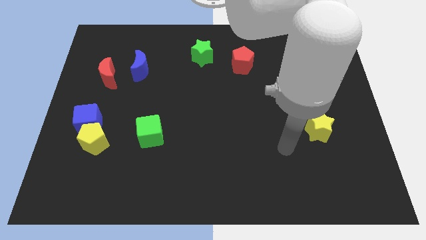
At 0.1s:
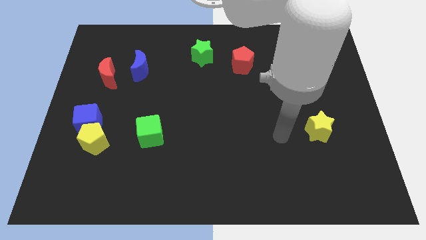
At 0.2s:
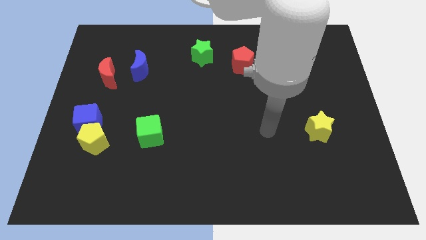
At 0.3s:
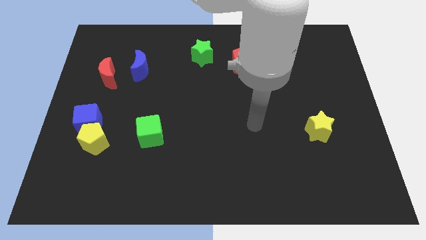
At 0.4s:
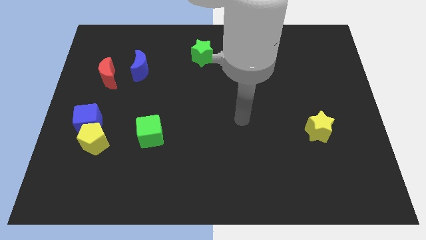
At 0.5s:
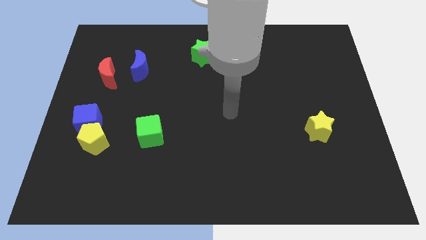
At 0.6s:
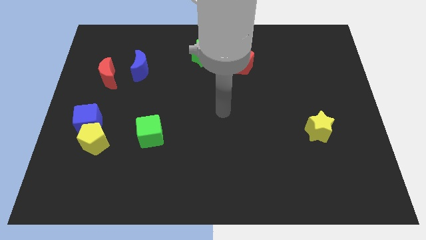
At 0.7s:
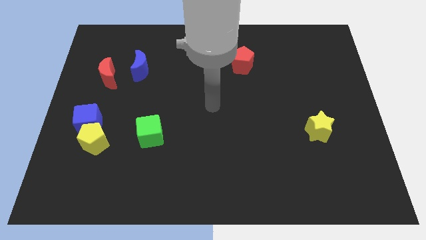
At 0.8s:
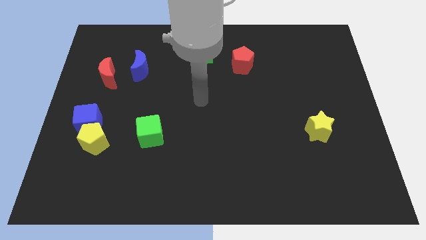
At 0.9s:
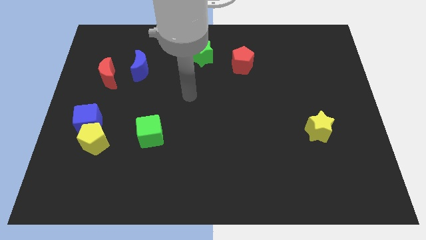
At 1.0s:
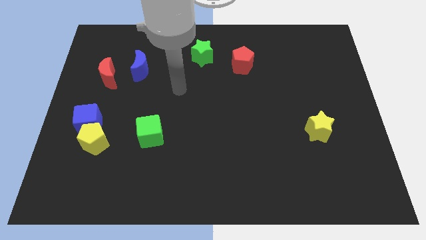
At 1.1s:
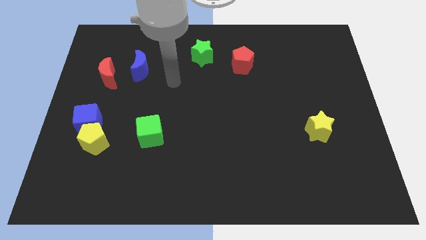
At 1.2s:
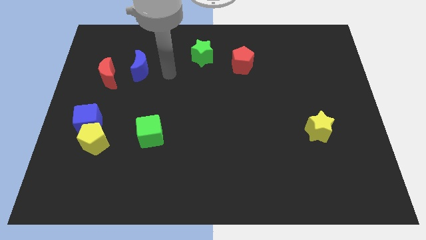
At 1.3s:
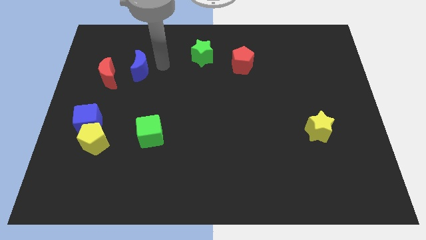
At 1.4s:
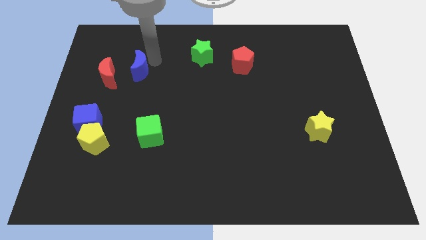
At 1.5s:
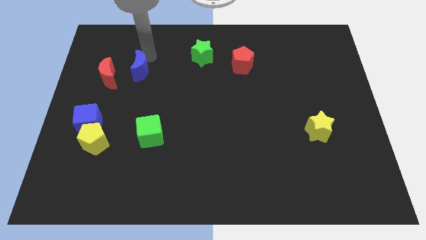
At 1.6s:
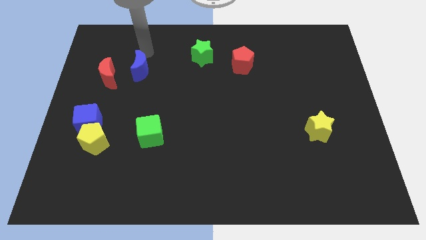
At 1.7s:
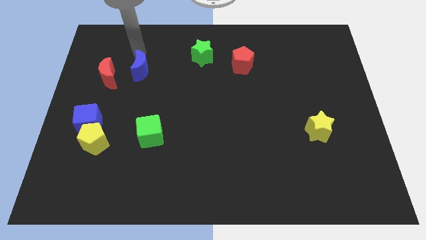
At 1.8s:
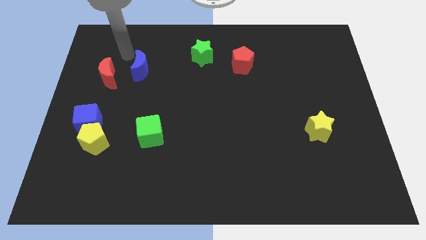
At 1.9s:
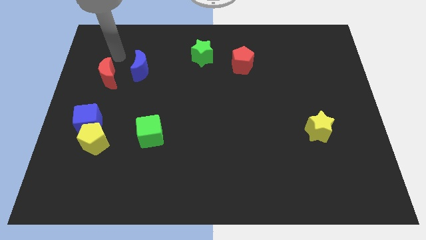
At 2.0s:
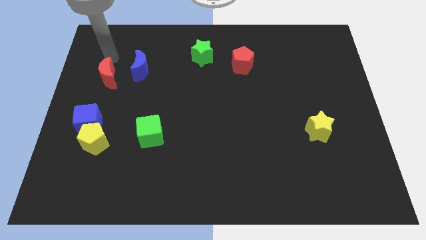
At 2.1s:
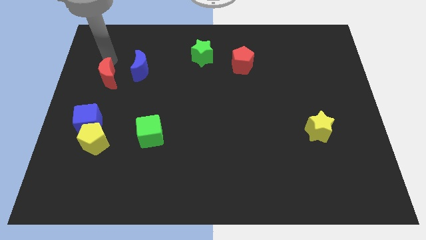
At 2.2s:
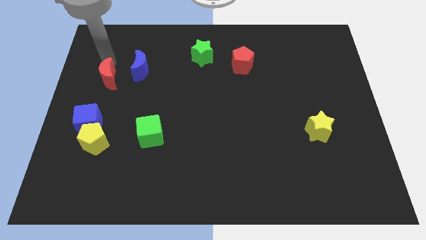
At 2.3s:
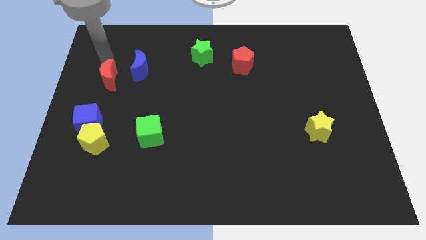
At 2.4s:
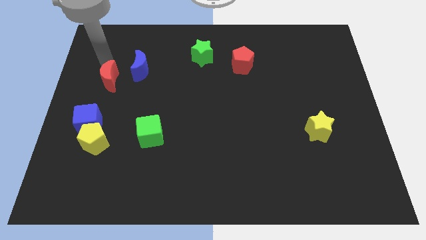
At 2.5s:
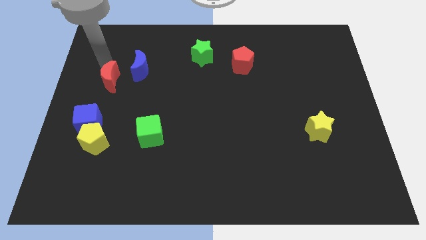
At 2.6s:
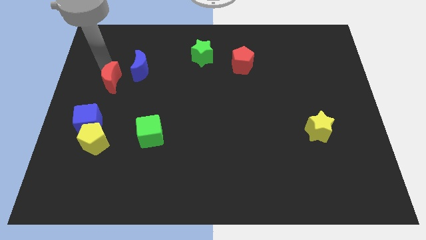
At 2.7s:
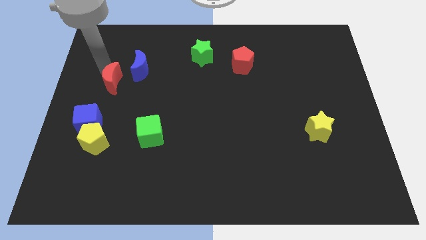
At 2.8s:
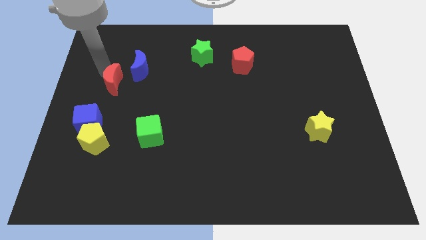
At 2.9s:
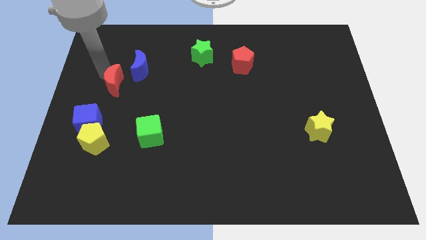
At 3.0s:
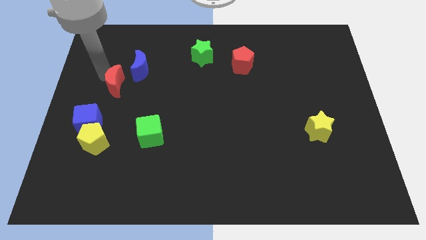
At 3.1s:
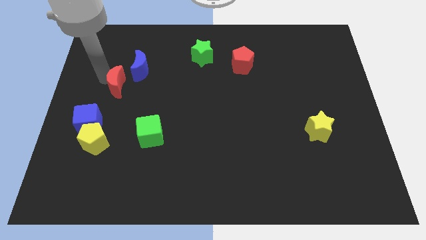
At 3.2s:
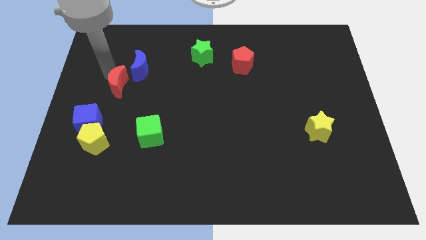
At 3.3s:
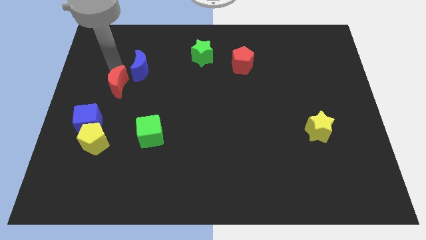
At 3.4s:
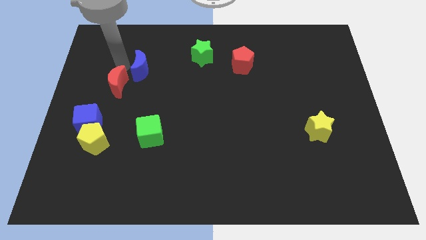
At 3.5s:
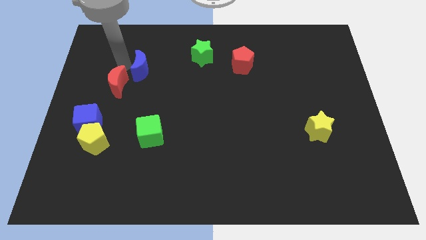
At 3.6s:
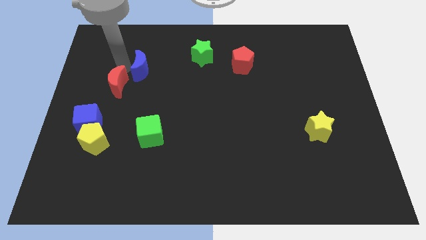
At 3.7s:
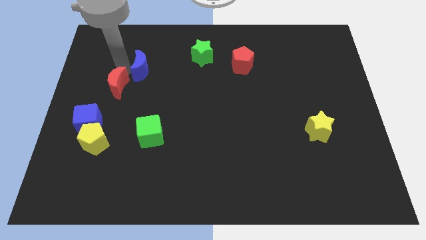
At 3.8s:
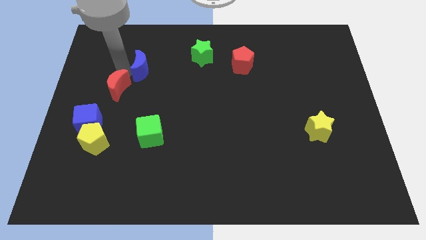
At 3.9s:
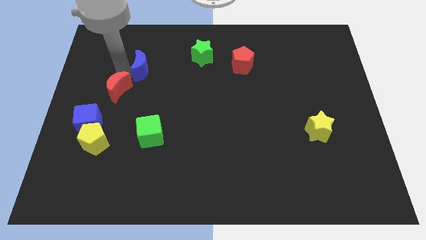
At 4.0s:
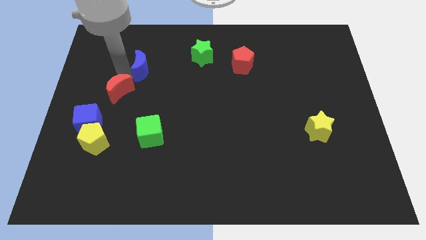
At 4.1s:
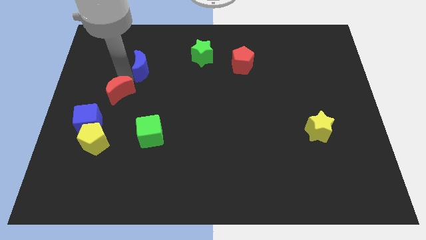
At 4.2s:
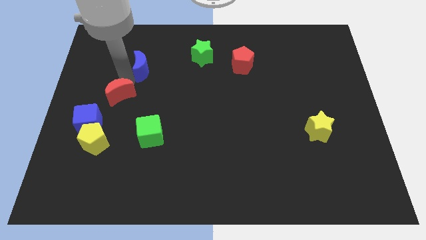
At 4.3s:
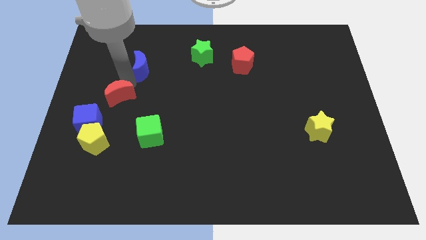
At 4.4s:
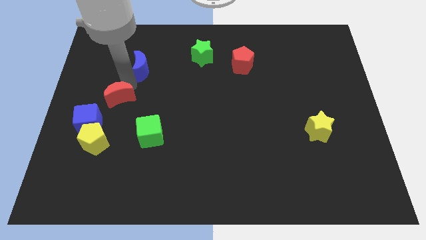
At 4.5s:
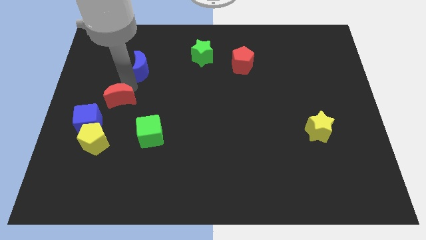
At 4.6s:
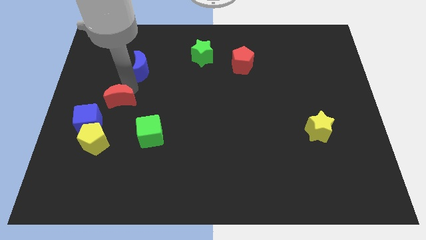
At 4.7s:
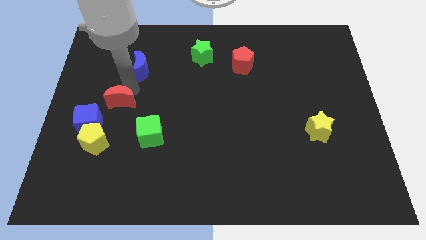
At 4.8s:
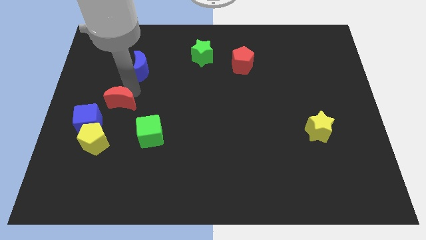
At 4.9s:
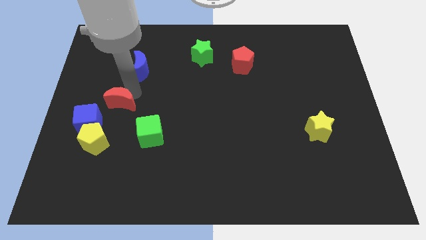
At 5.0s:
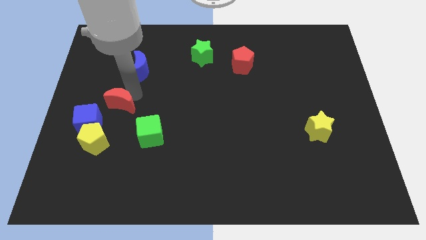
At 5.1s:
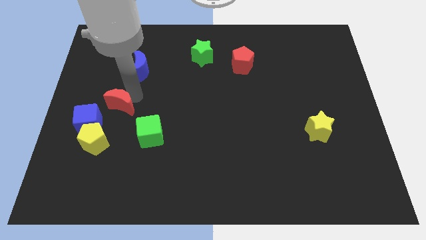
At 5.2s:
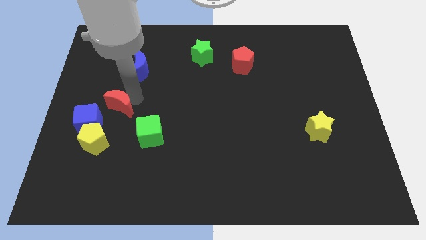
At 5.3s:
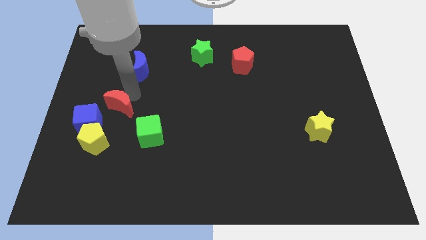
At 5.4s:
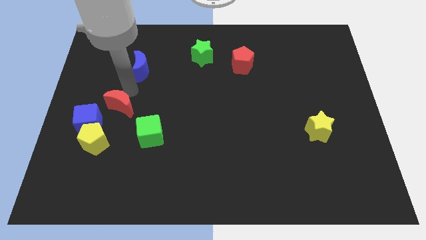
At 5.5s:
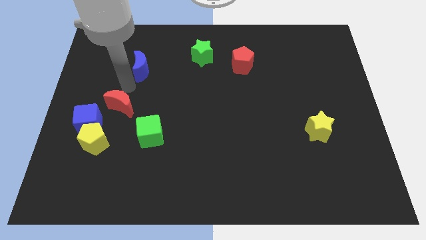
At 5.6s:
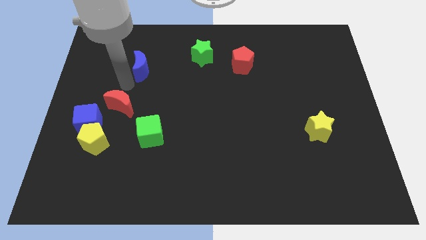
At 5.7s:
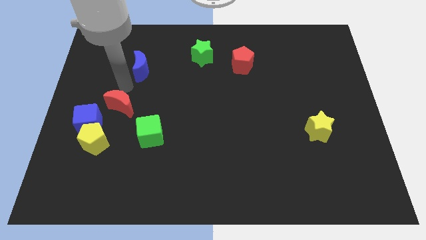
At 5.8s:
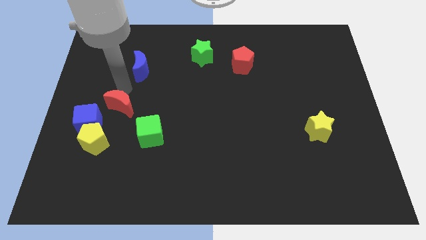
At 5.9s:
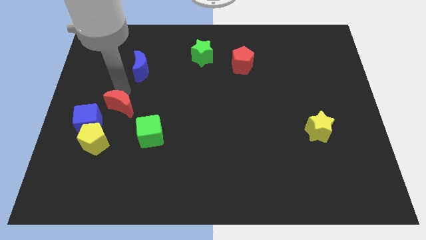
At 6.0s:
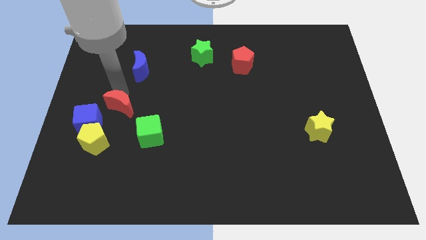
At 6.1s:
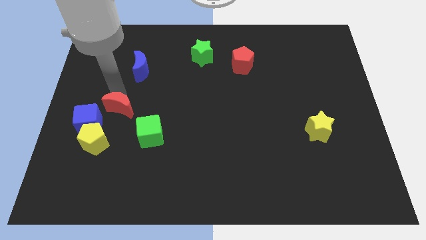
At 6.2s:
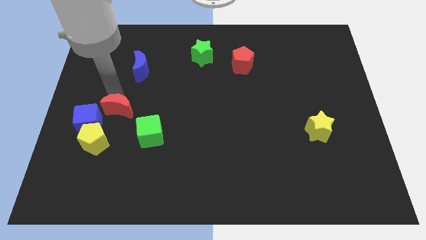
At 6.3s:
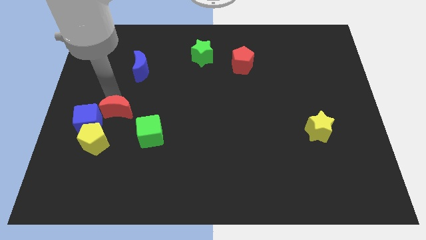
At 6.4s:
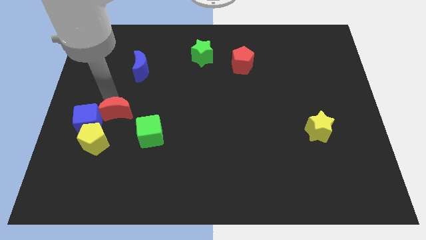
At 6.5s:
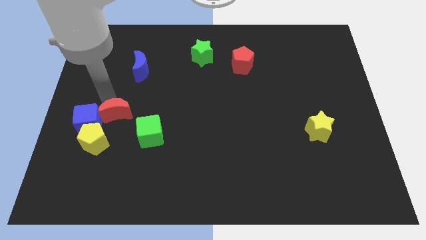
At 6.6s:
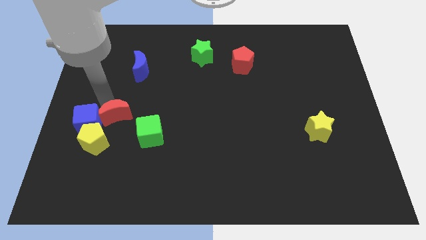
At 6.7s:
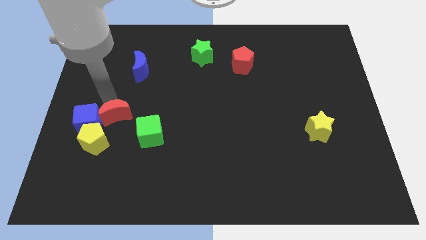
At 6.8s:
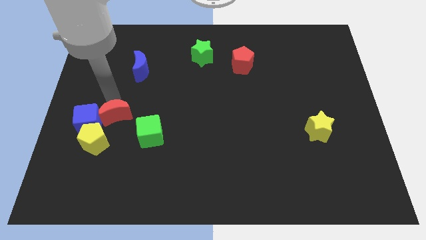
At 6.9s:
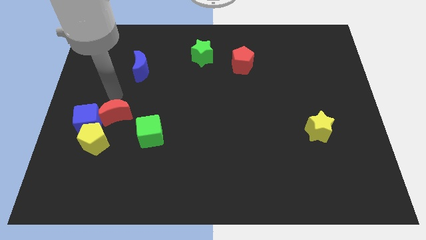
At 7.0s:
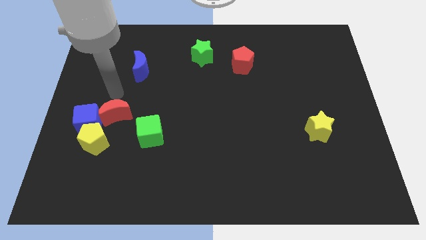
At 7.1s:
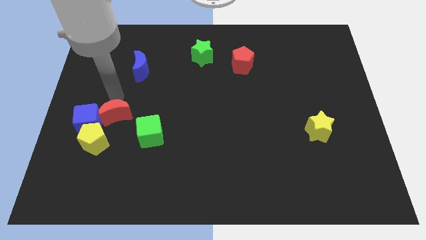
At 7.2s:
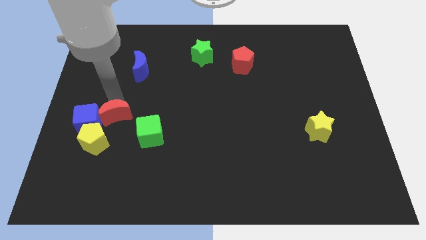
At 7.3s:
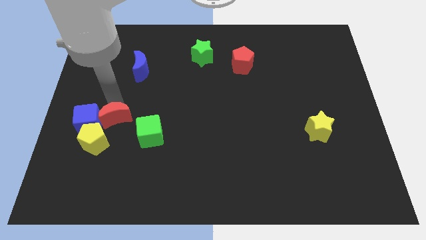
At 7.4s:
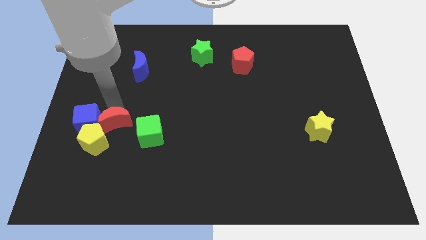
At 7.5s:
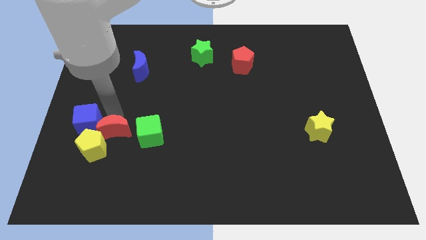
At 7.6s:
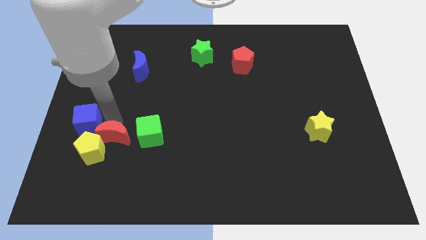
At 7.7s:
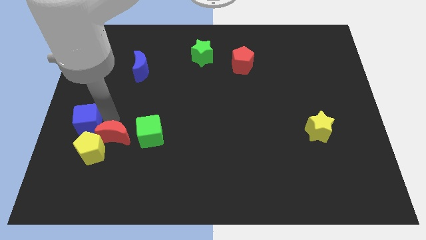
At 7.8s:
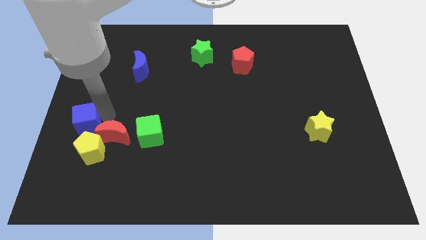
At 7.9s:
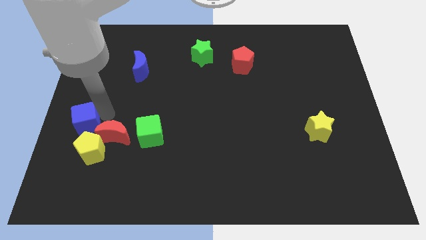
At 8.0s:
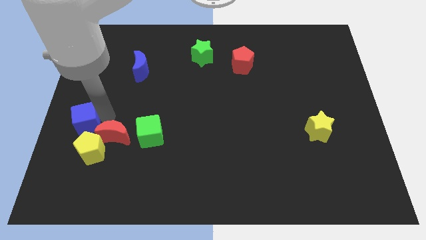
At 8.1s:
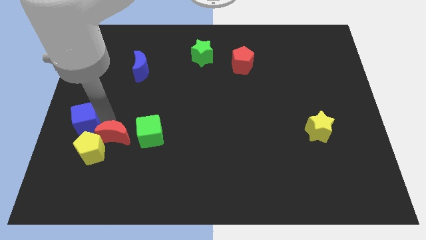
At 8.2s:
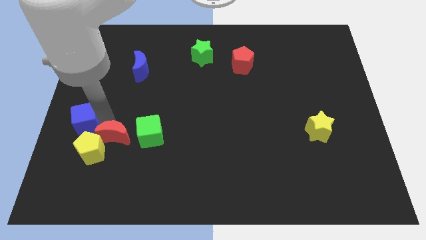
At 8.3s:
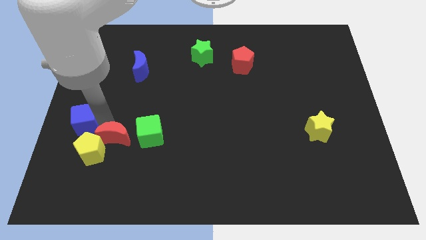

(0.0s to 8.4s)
put the red moon diagonally down and to the left of the green cube
